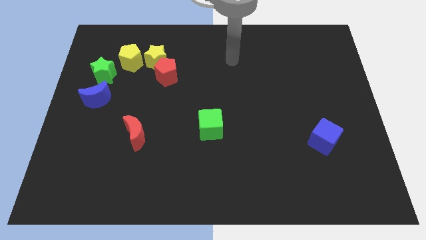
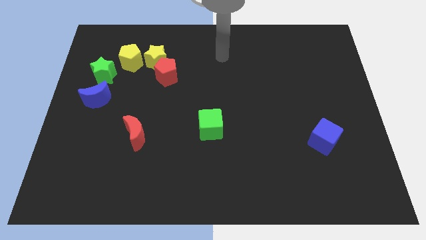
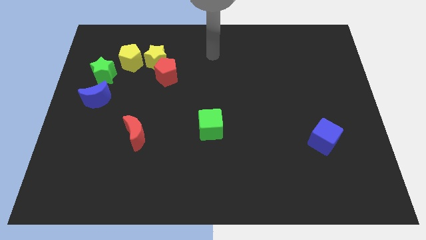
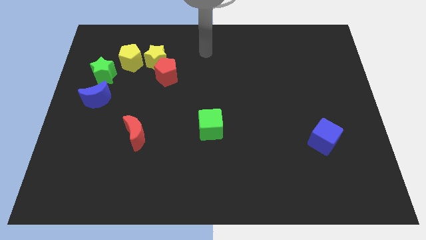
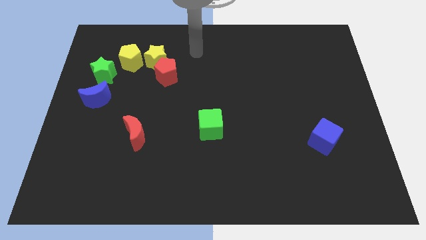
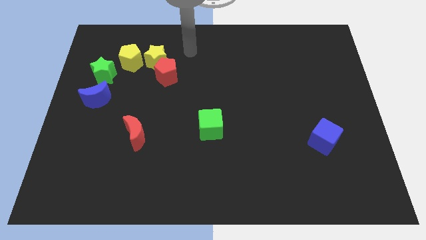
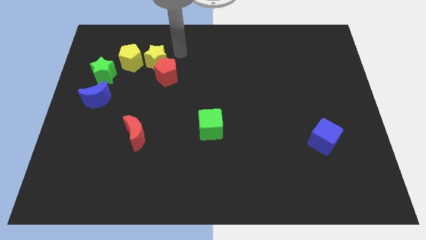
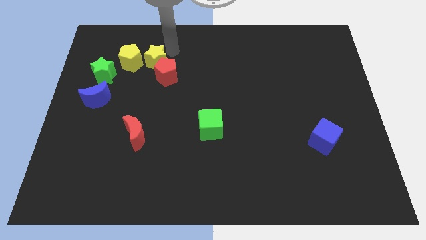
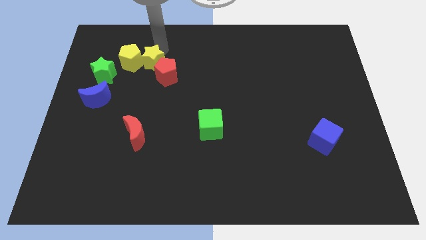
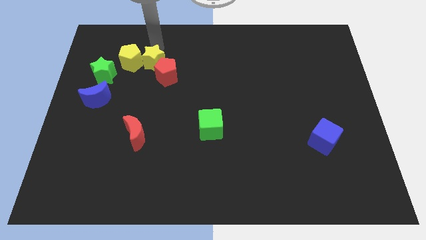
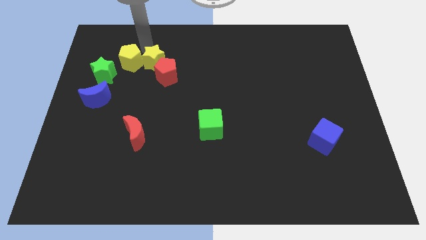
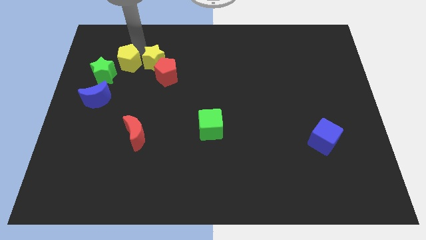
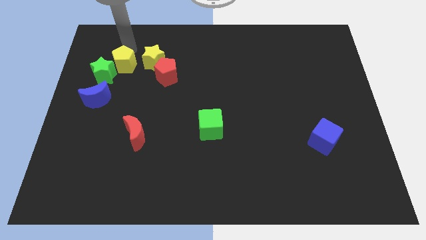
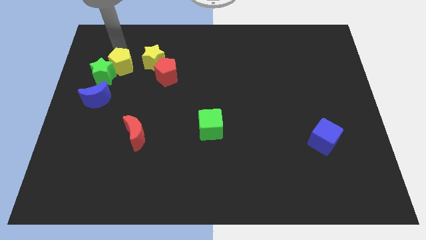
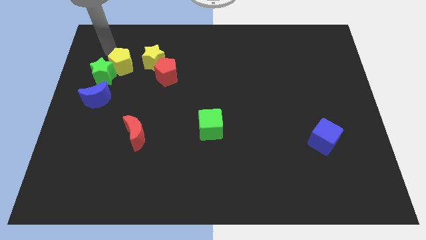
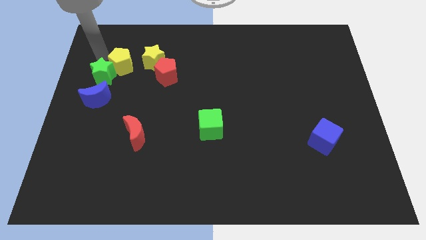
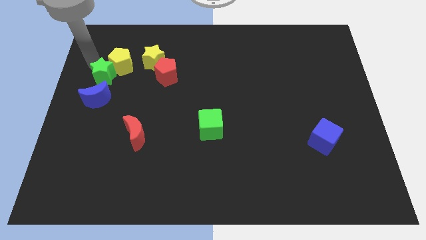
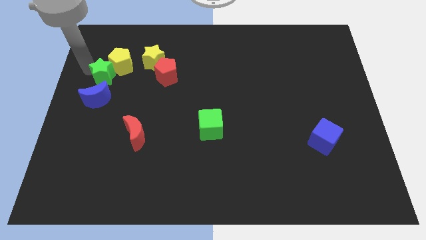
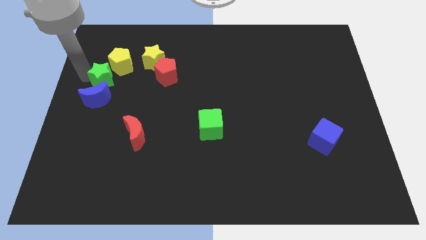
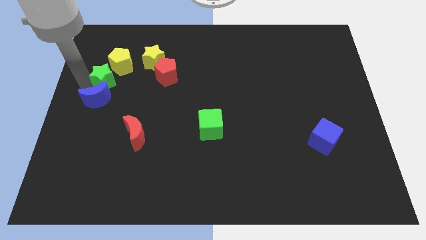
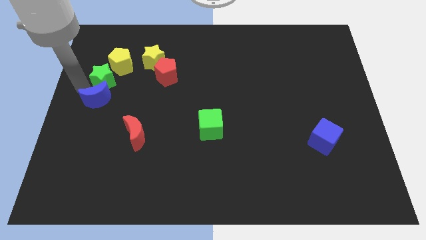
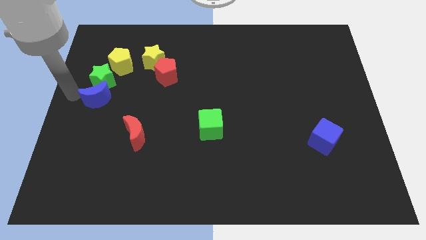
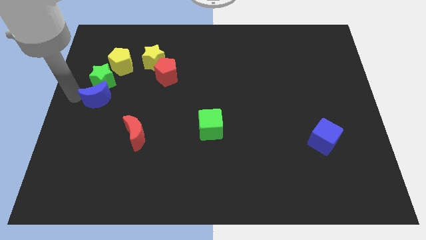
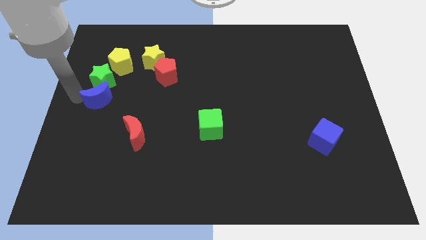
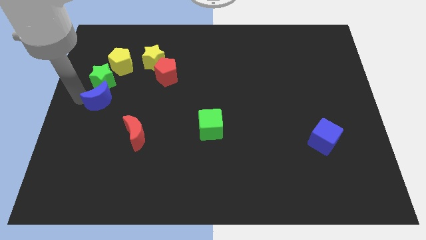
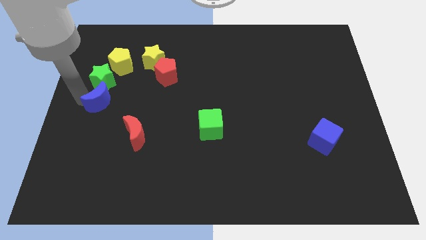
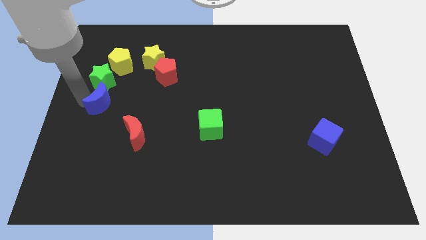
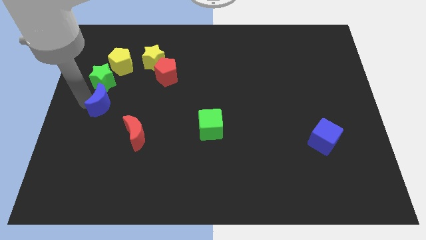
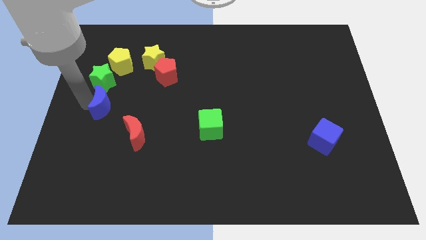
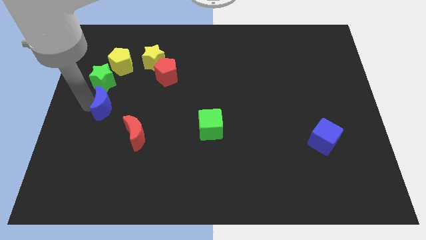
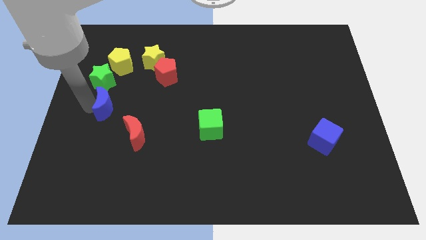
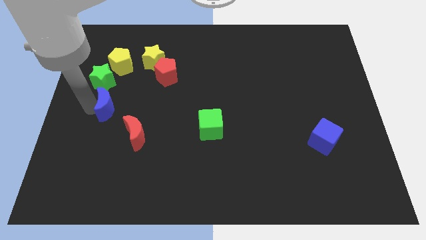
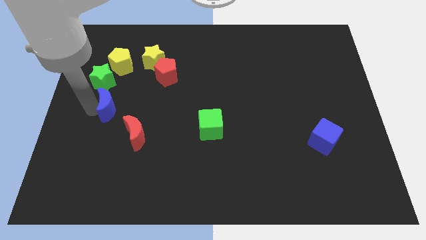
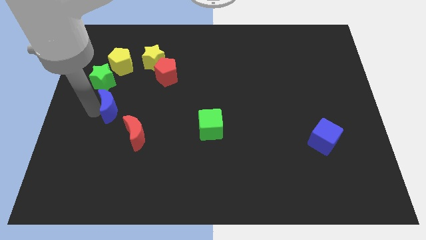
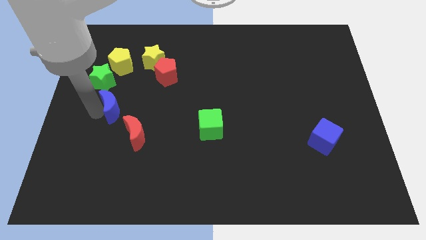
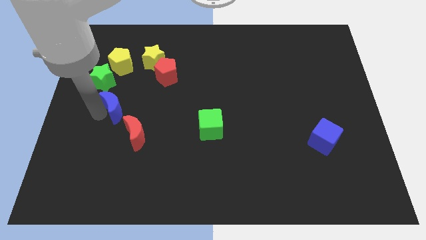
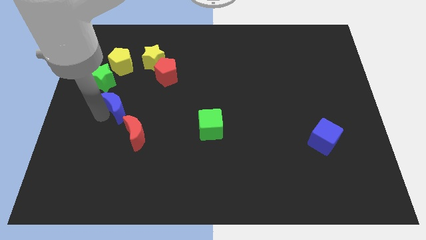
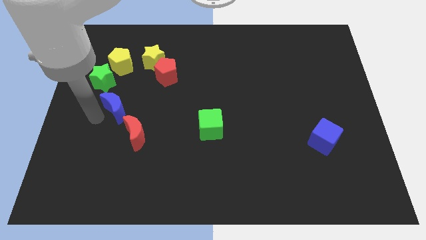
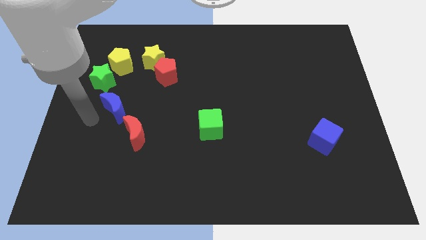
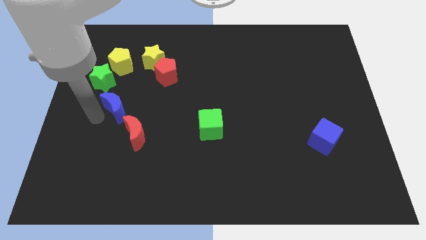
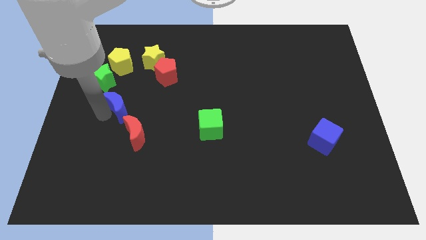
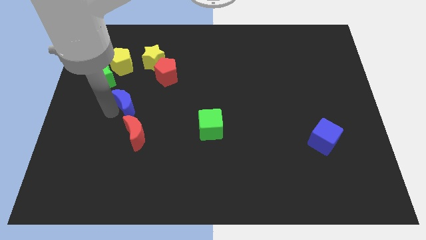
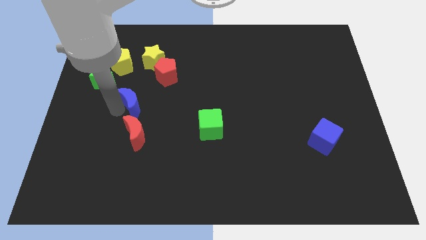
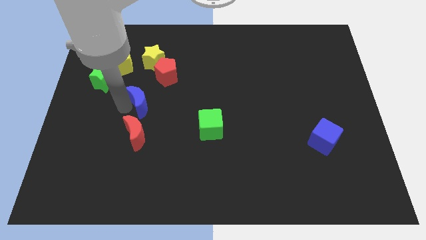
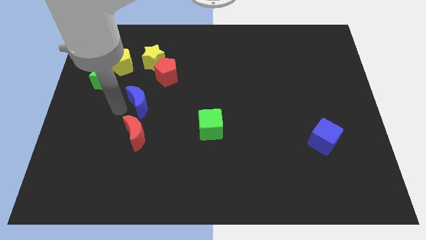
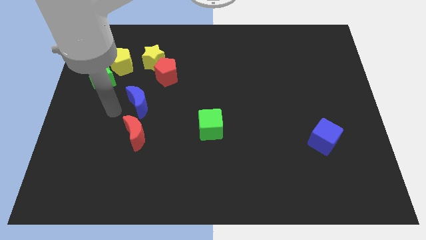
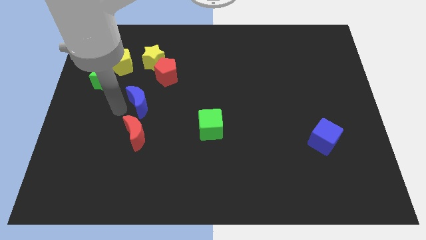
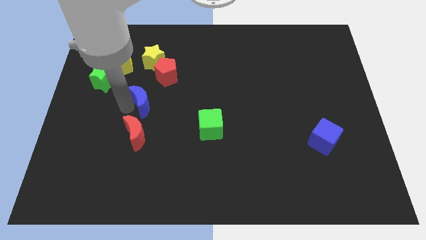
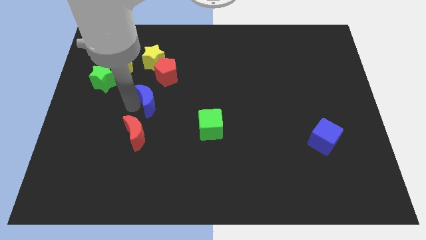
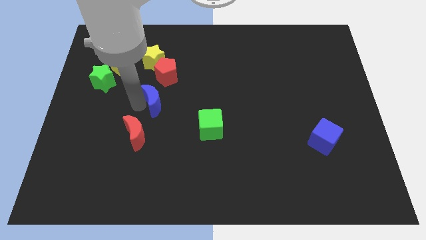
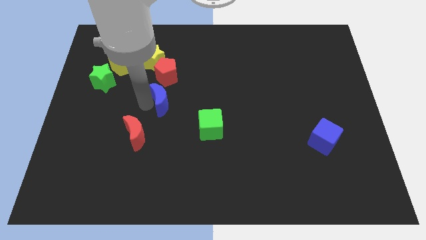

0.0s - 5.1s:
put the blue moon to the center of the board

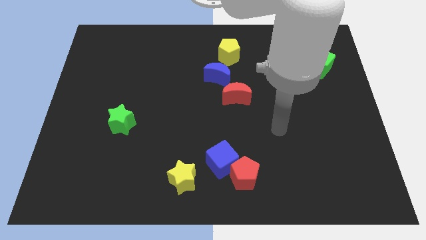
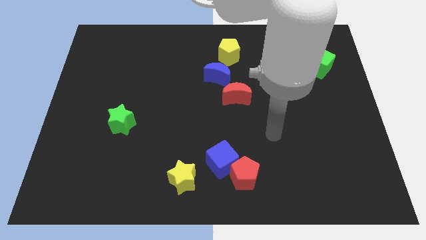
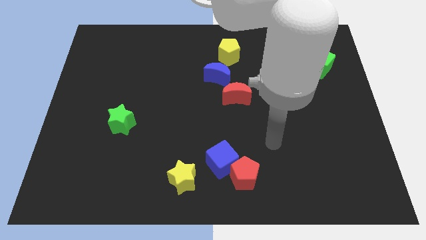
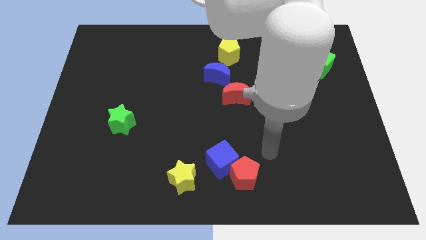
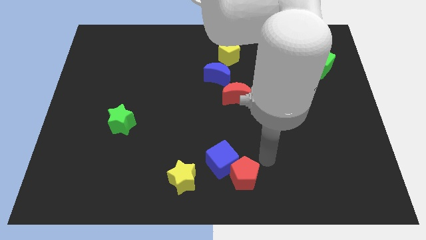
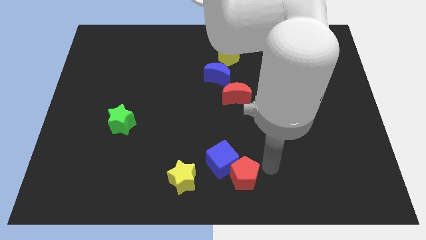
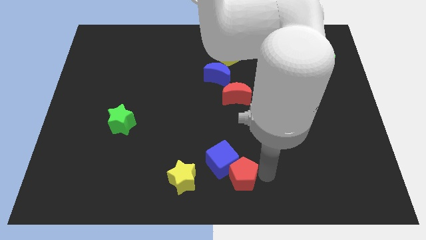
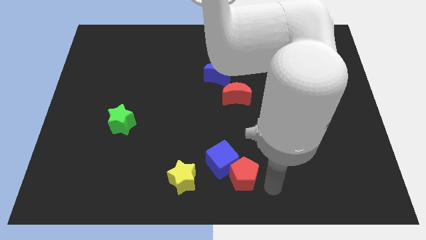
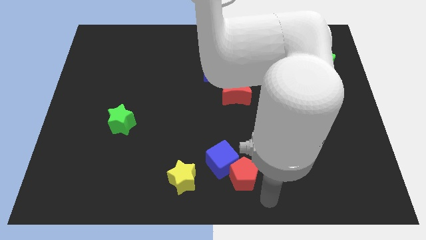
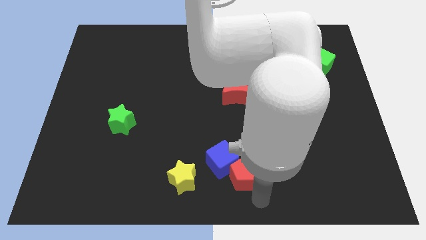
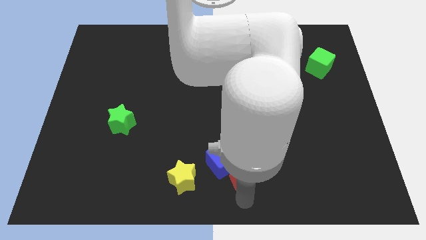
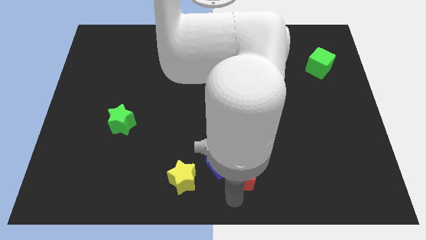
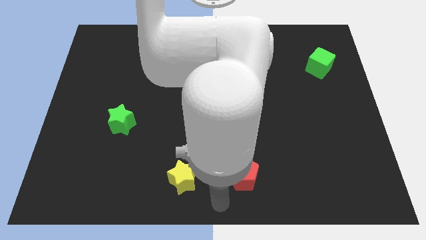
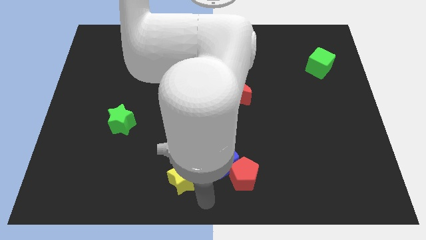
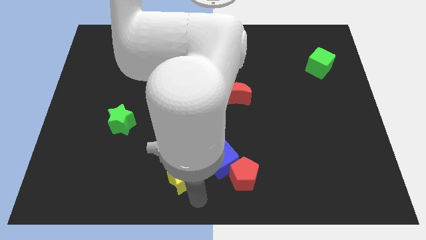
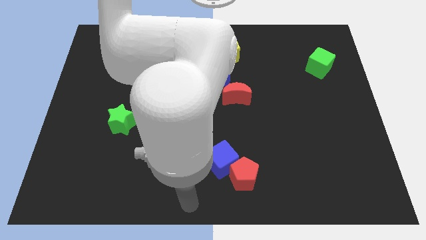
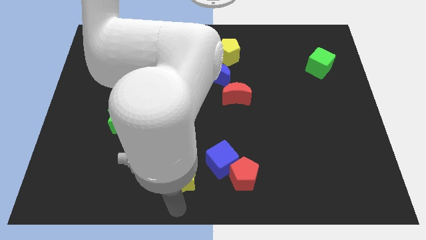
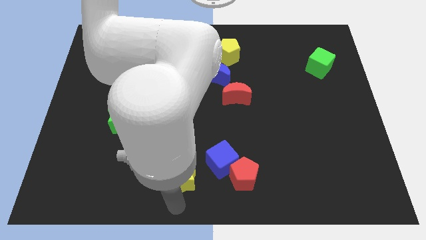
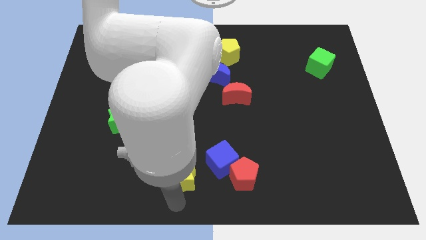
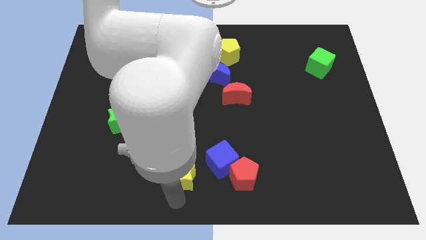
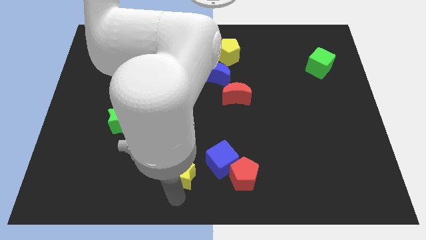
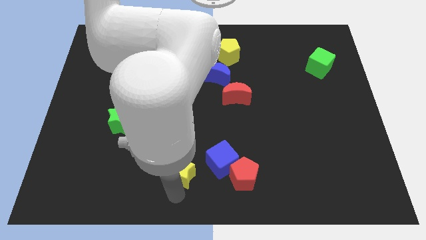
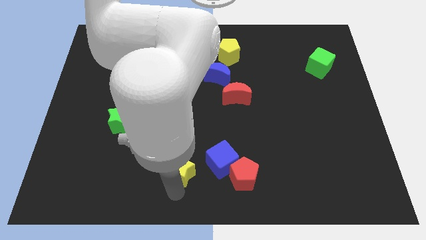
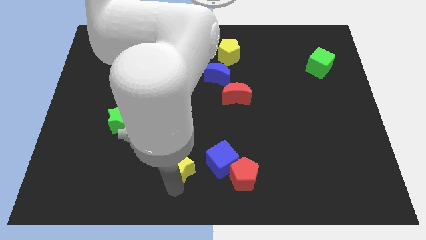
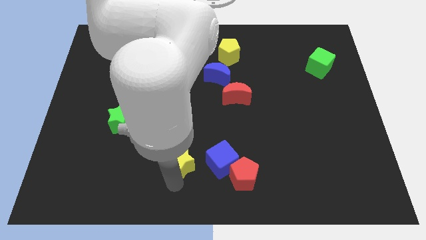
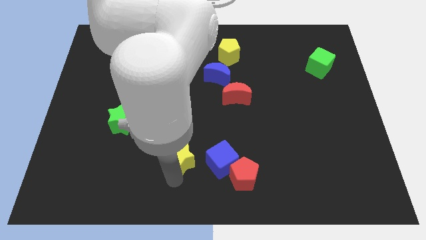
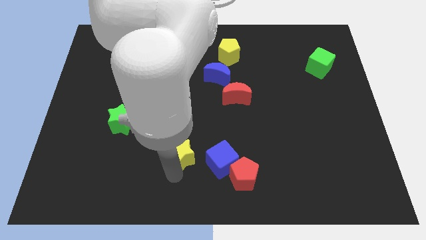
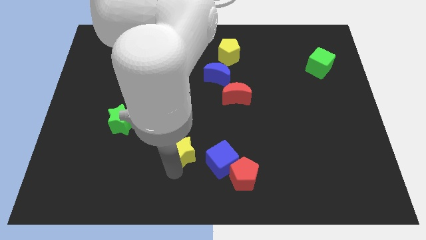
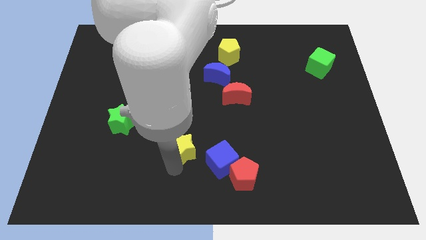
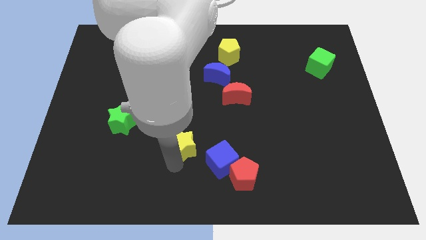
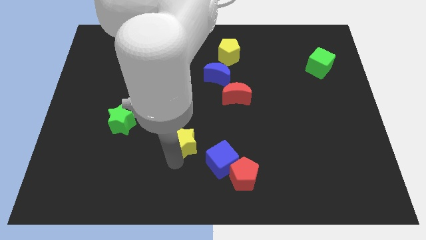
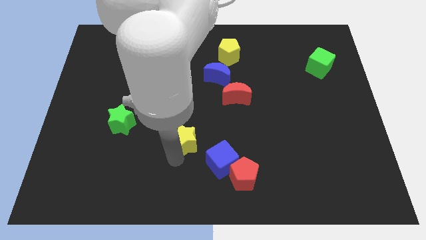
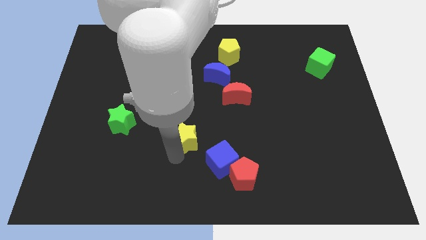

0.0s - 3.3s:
put the yellow star to the middle of the board
